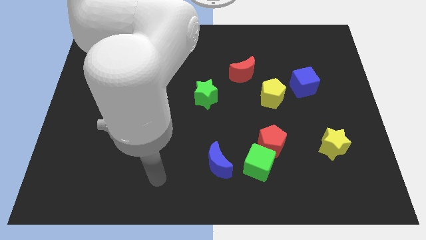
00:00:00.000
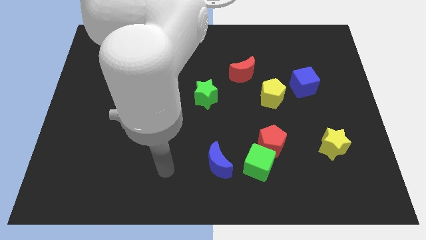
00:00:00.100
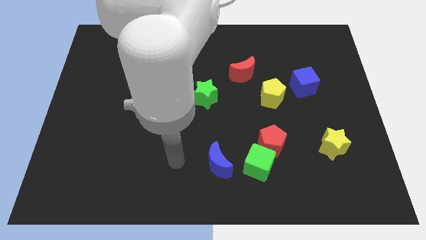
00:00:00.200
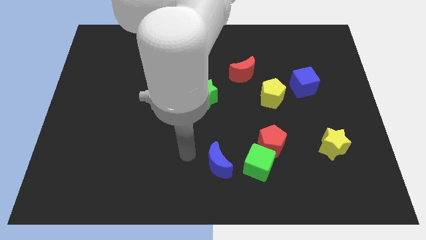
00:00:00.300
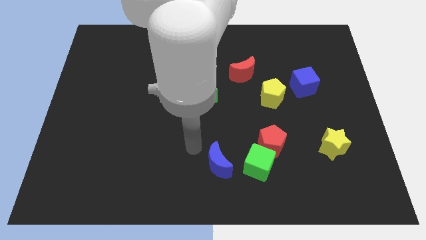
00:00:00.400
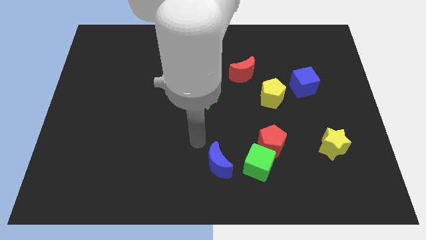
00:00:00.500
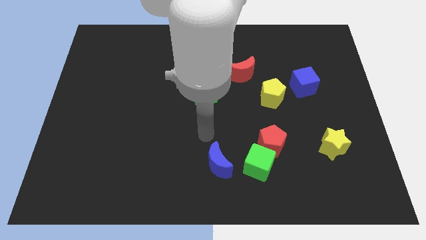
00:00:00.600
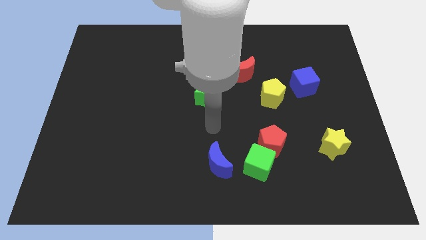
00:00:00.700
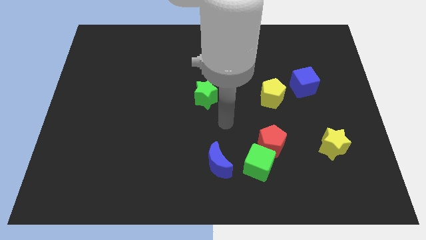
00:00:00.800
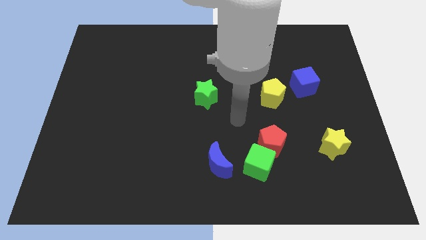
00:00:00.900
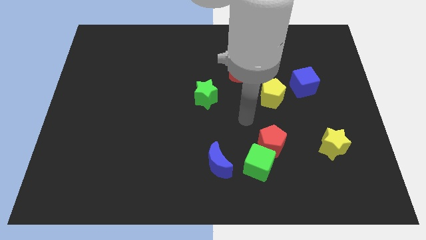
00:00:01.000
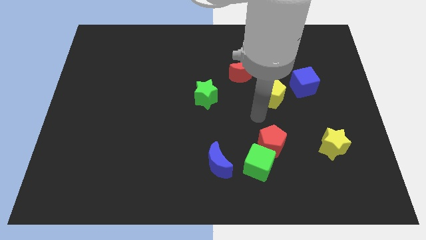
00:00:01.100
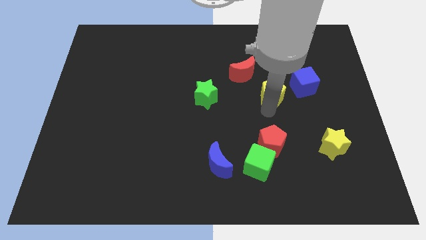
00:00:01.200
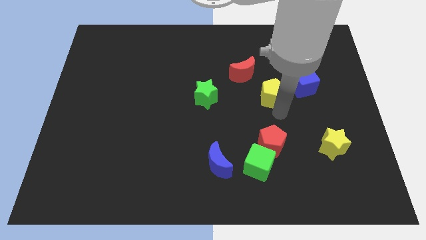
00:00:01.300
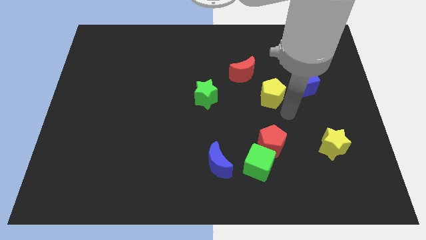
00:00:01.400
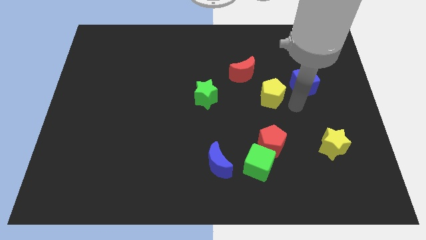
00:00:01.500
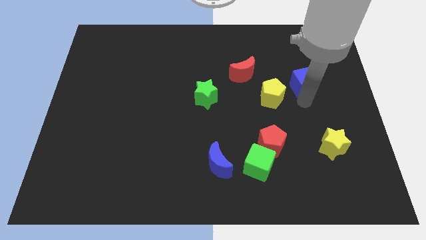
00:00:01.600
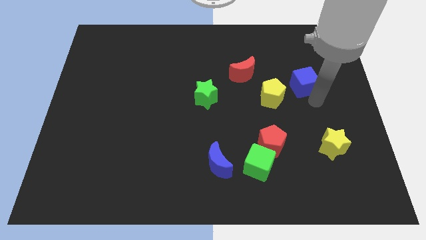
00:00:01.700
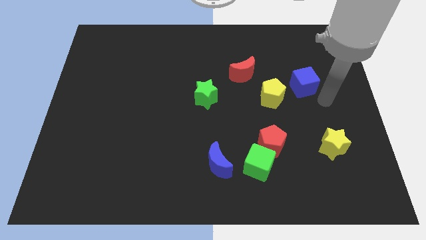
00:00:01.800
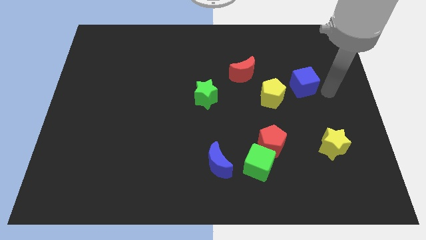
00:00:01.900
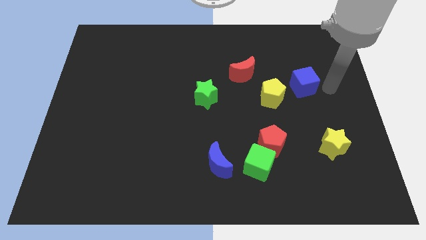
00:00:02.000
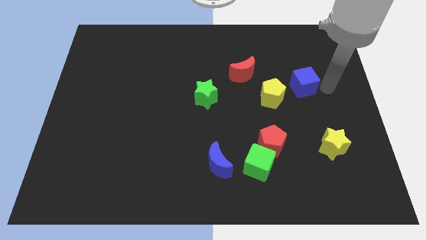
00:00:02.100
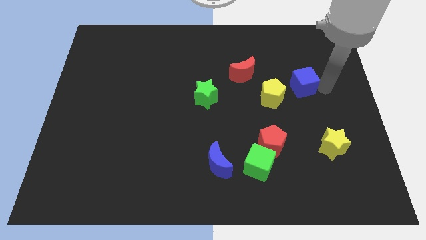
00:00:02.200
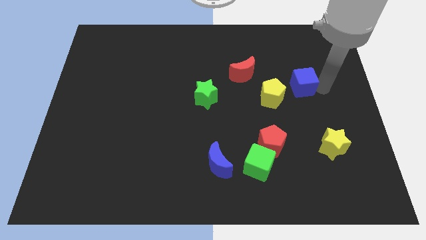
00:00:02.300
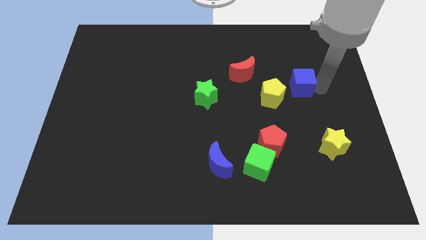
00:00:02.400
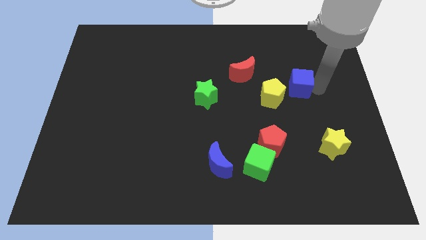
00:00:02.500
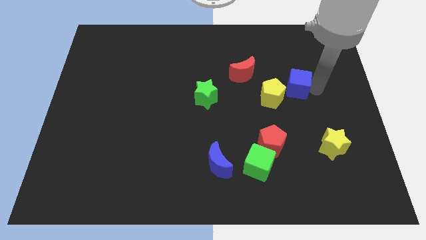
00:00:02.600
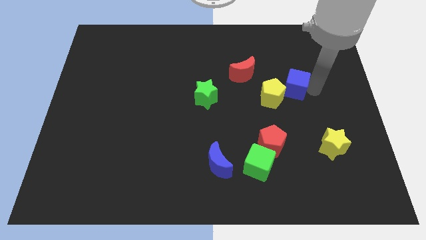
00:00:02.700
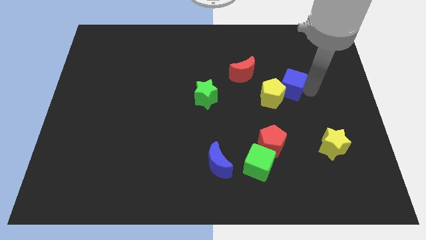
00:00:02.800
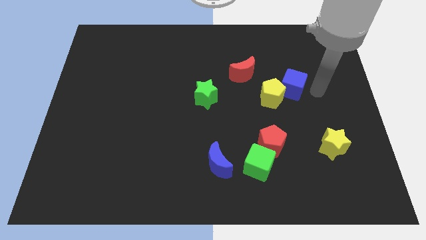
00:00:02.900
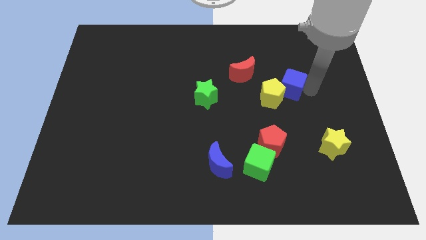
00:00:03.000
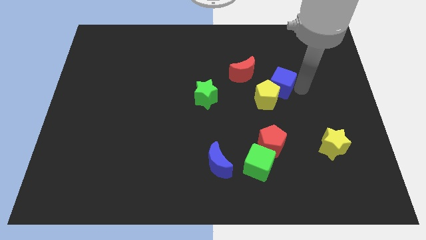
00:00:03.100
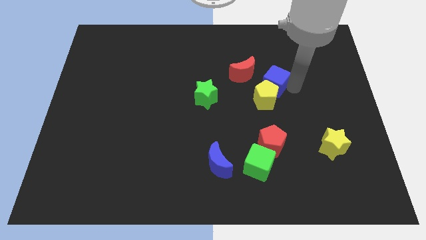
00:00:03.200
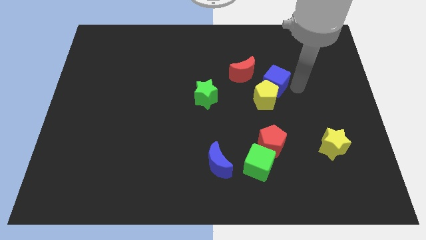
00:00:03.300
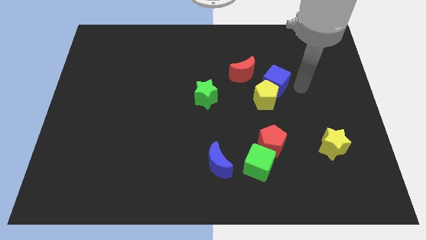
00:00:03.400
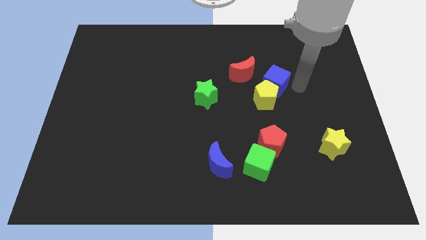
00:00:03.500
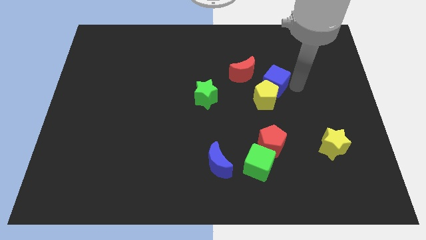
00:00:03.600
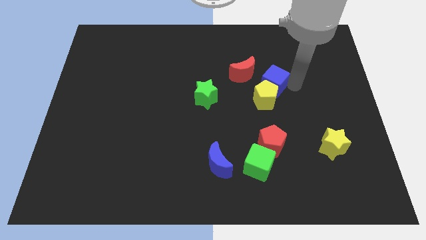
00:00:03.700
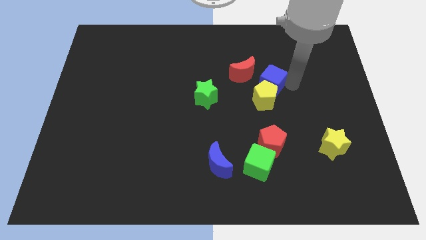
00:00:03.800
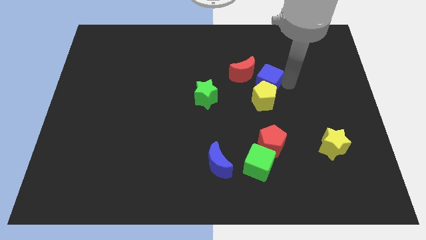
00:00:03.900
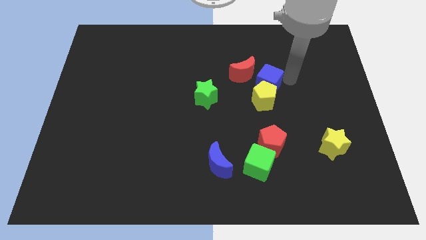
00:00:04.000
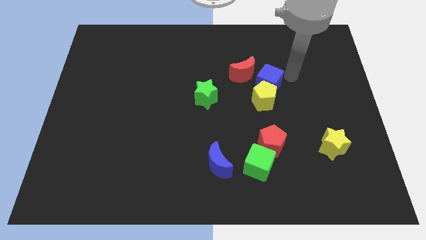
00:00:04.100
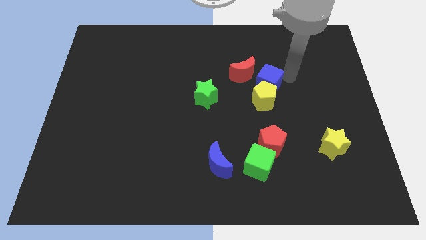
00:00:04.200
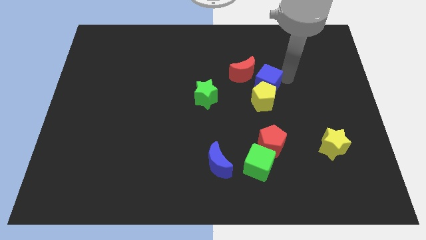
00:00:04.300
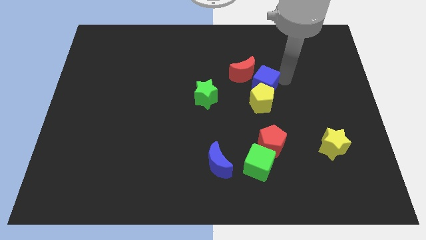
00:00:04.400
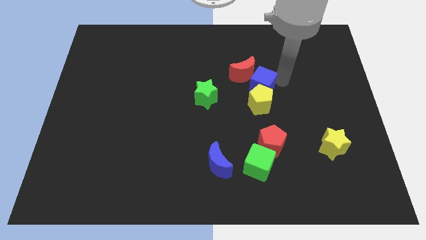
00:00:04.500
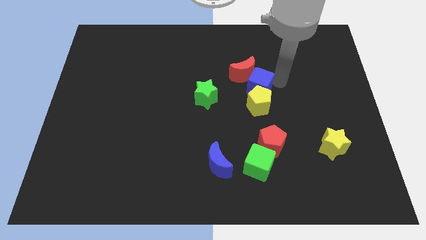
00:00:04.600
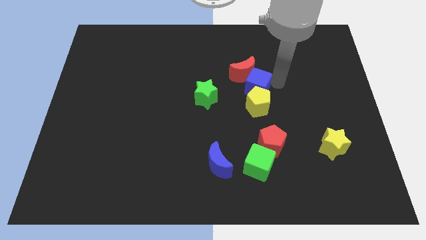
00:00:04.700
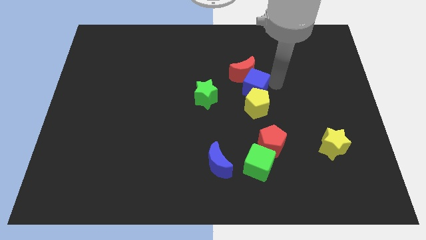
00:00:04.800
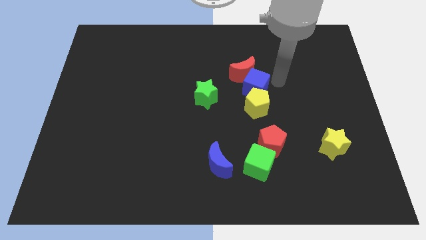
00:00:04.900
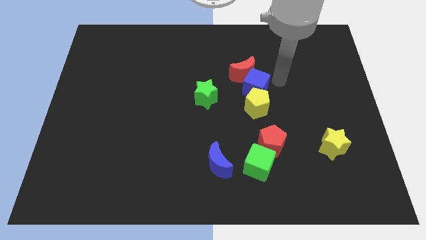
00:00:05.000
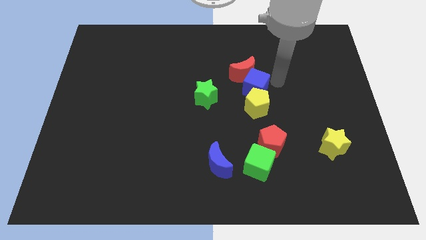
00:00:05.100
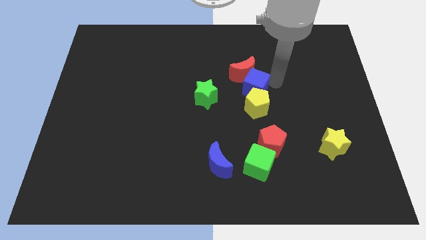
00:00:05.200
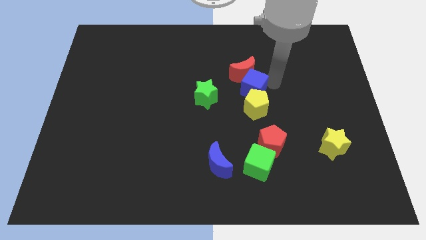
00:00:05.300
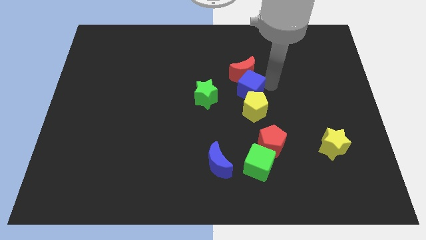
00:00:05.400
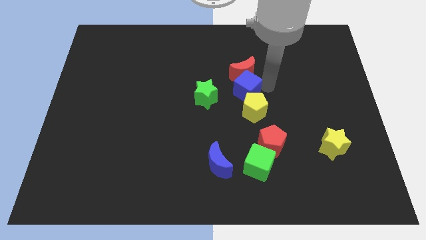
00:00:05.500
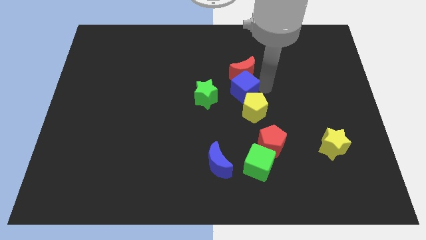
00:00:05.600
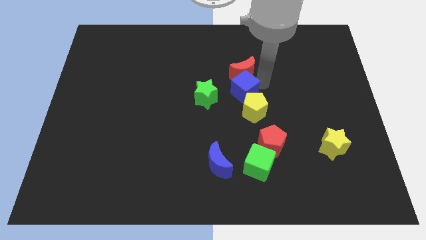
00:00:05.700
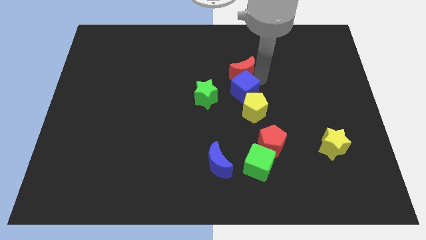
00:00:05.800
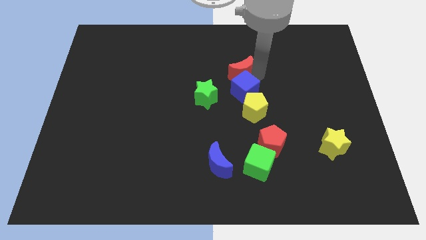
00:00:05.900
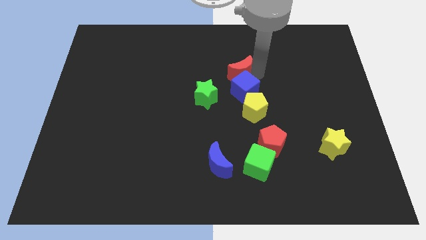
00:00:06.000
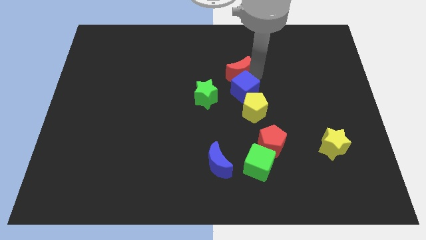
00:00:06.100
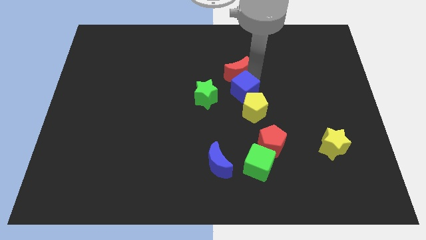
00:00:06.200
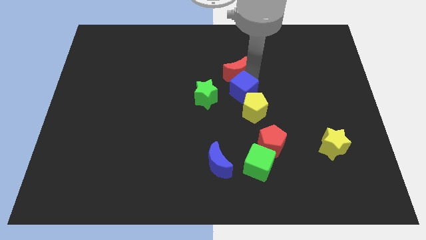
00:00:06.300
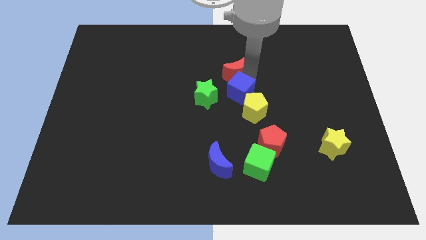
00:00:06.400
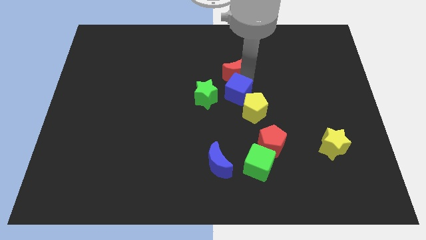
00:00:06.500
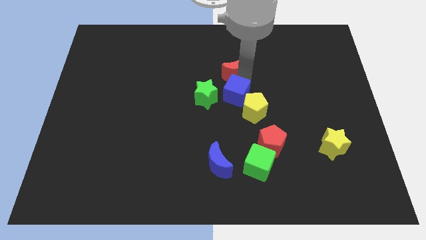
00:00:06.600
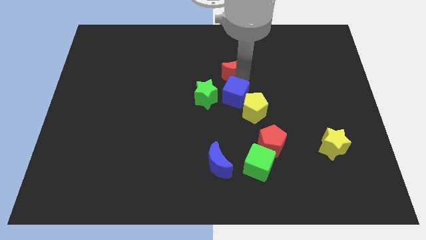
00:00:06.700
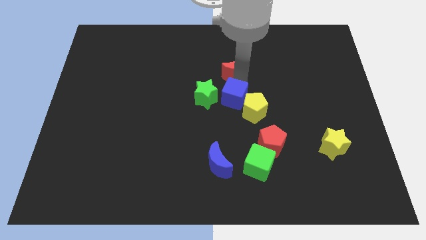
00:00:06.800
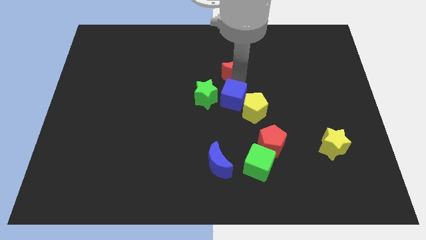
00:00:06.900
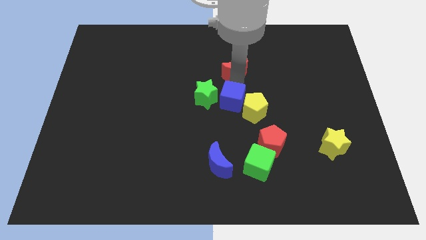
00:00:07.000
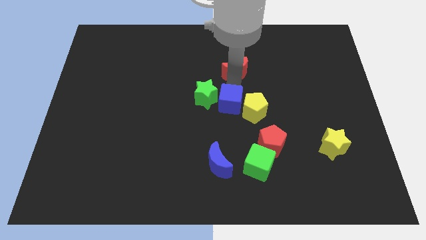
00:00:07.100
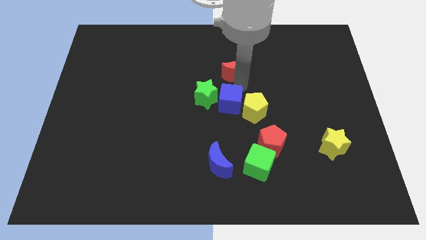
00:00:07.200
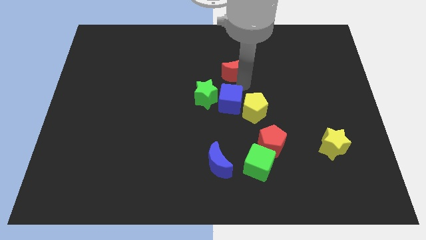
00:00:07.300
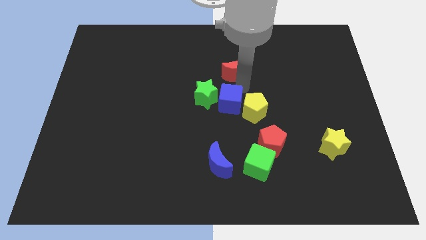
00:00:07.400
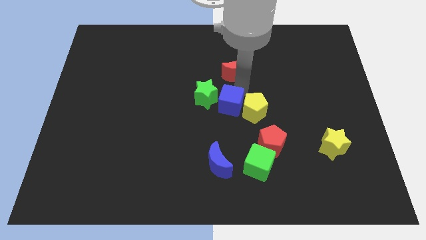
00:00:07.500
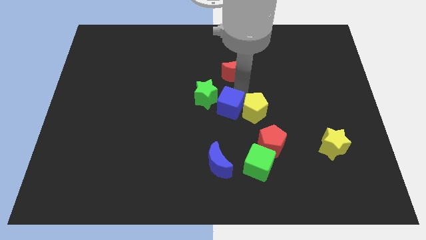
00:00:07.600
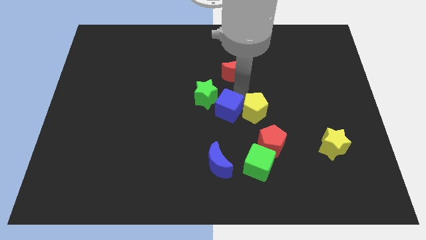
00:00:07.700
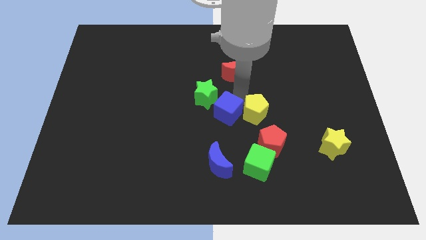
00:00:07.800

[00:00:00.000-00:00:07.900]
put the blue cube to the bottom of the green star
